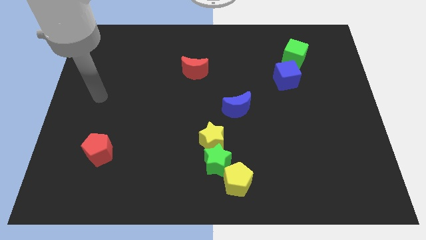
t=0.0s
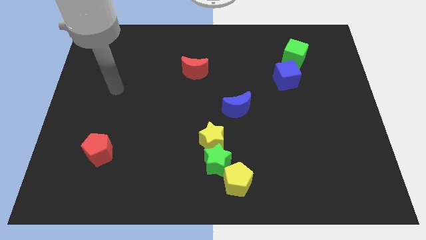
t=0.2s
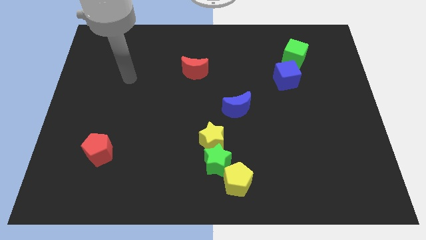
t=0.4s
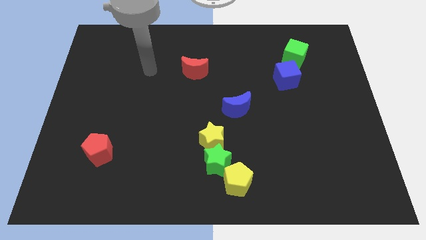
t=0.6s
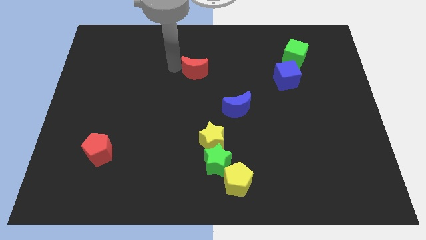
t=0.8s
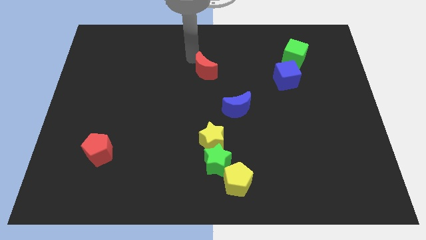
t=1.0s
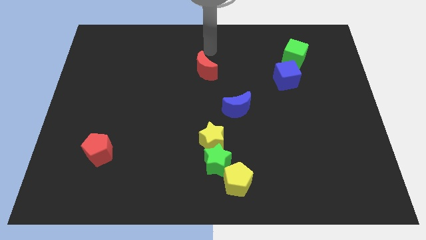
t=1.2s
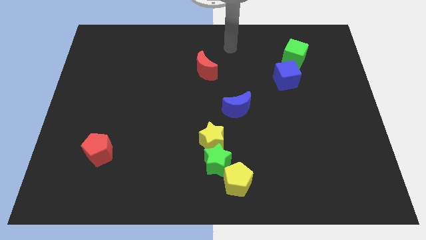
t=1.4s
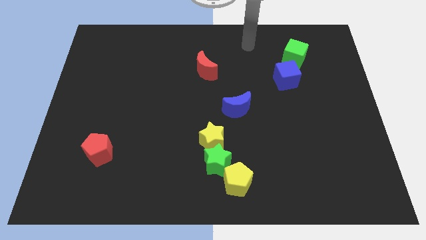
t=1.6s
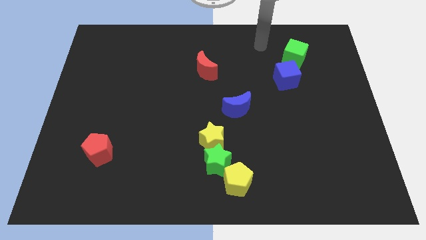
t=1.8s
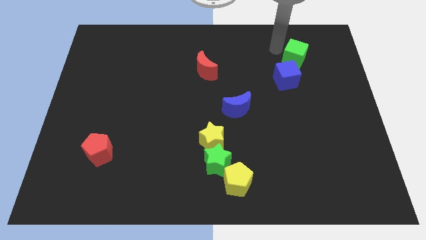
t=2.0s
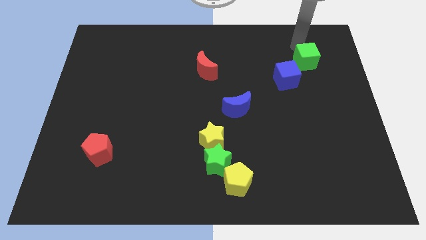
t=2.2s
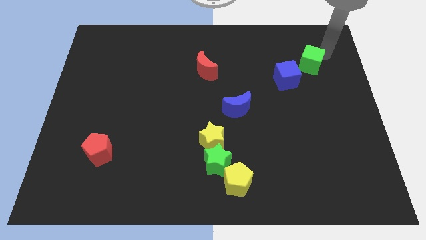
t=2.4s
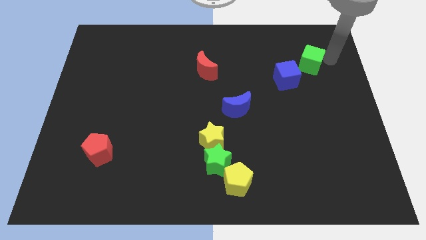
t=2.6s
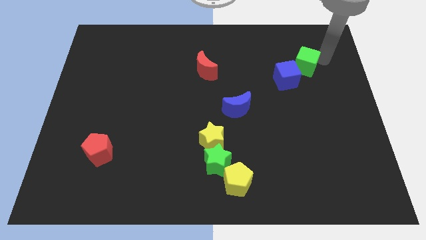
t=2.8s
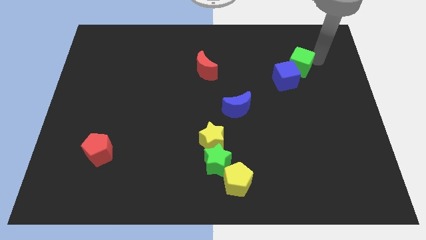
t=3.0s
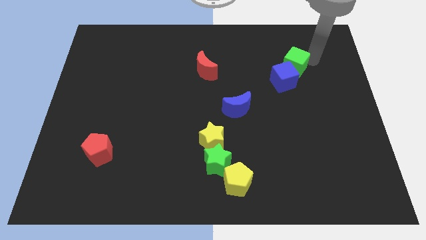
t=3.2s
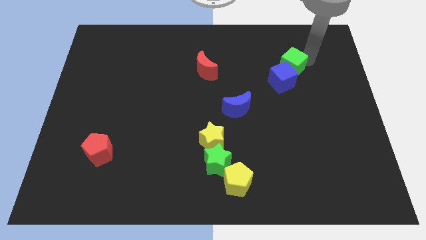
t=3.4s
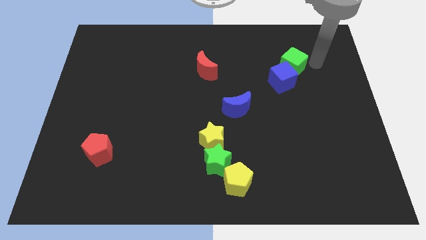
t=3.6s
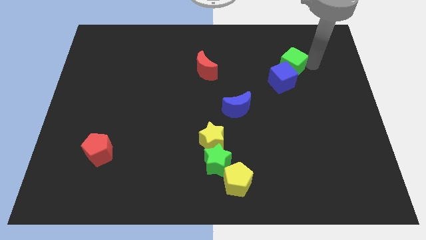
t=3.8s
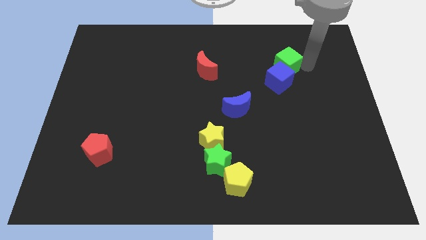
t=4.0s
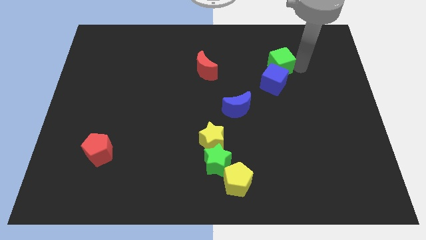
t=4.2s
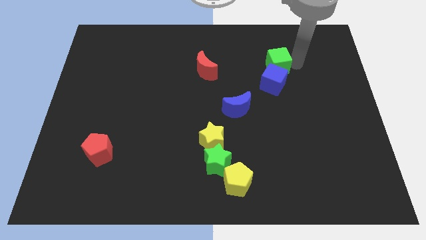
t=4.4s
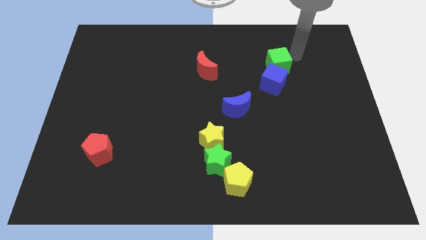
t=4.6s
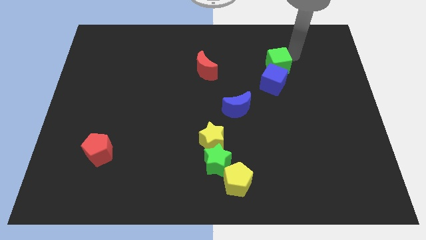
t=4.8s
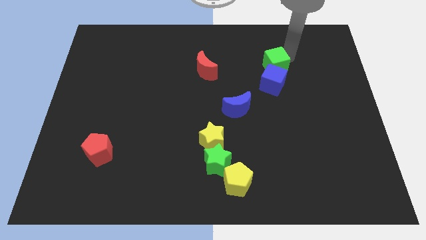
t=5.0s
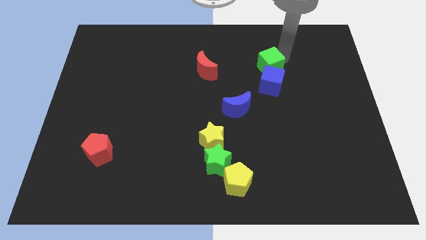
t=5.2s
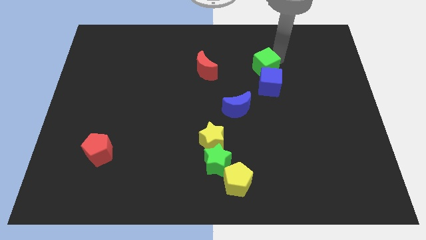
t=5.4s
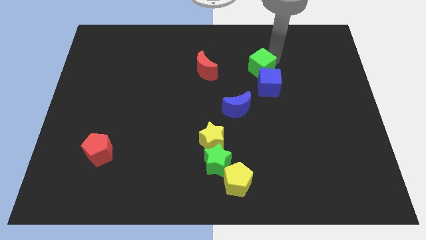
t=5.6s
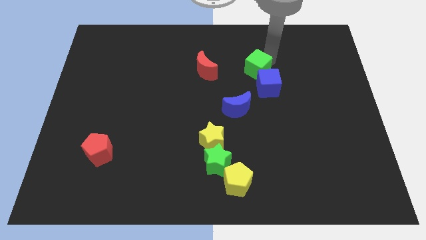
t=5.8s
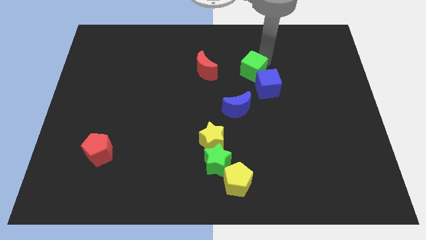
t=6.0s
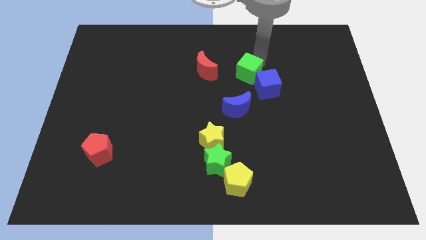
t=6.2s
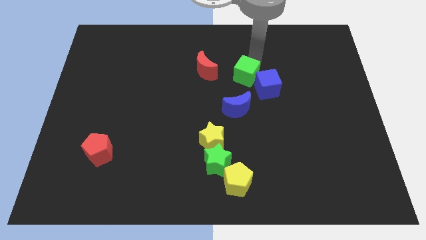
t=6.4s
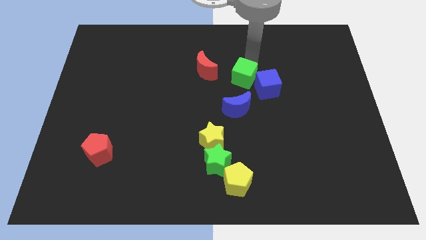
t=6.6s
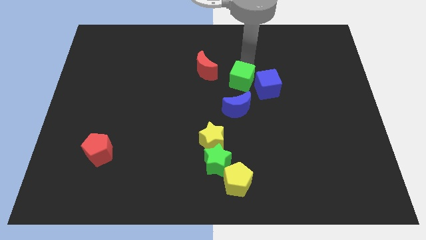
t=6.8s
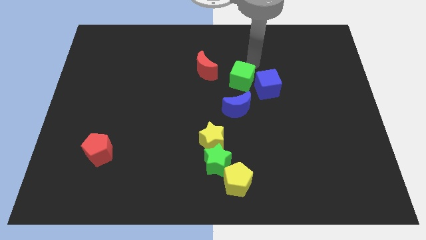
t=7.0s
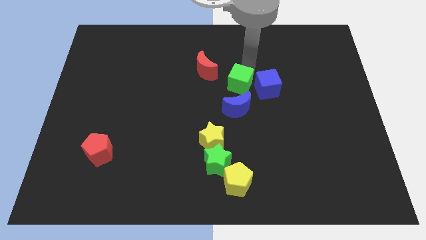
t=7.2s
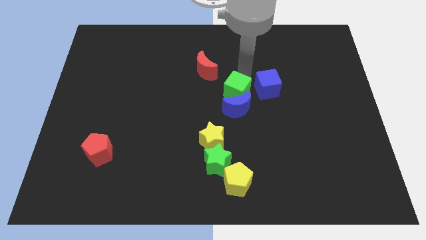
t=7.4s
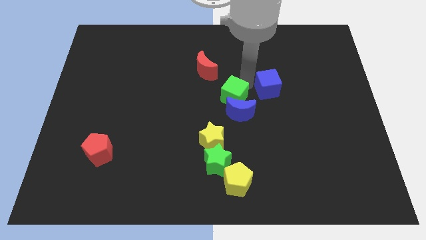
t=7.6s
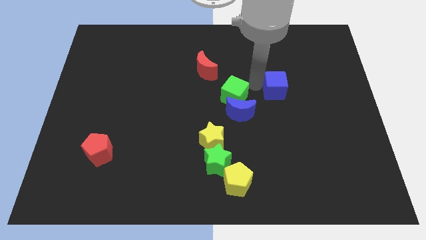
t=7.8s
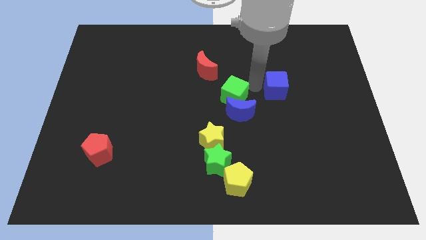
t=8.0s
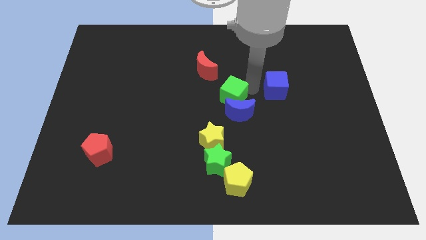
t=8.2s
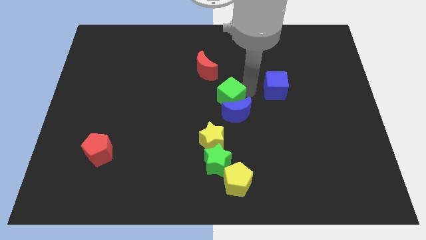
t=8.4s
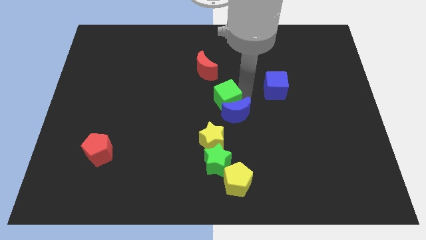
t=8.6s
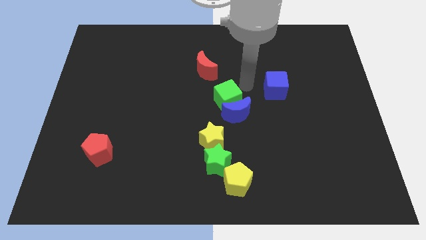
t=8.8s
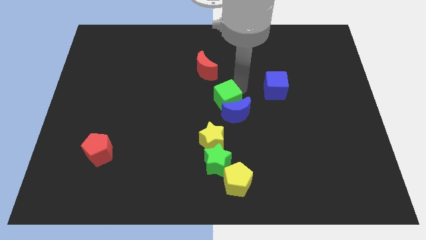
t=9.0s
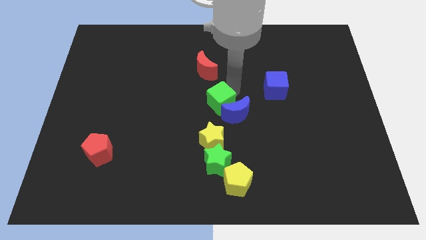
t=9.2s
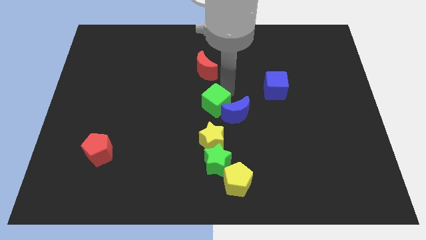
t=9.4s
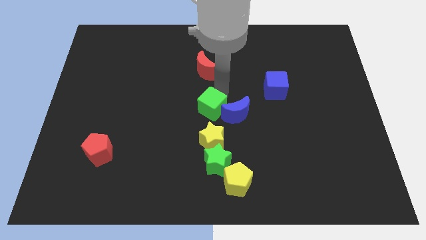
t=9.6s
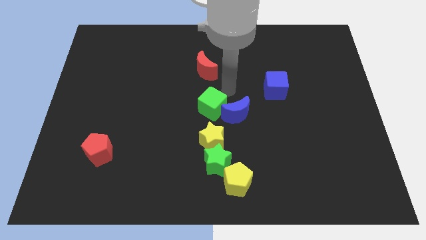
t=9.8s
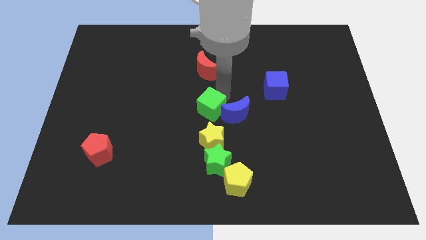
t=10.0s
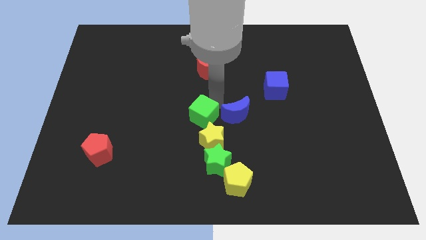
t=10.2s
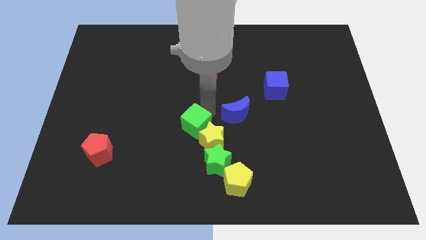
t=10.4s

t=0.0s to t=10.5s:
put the green cube to the left side of the yellow star

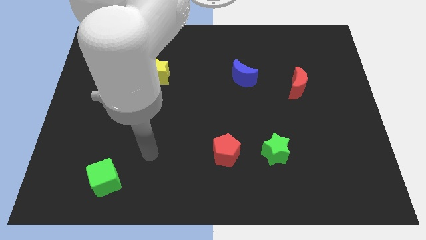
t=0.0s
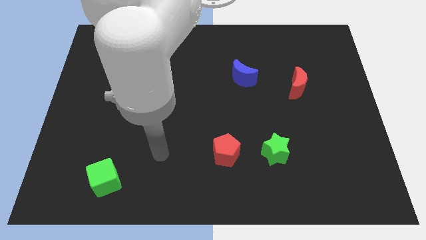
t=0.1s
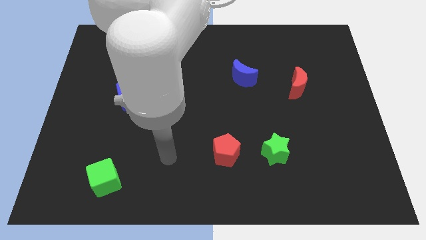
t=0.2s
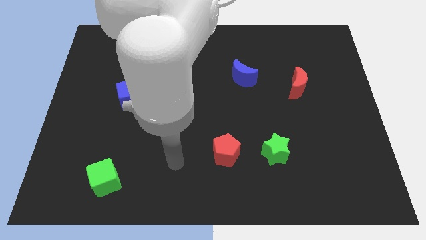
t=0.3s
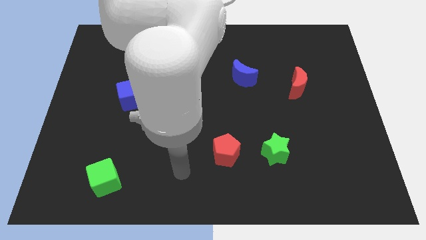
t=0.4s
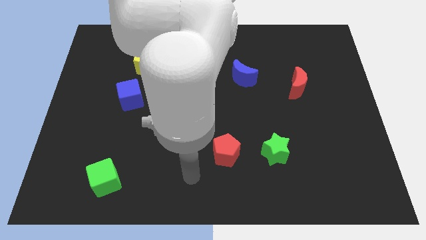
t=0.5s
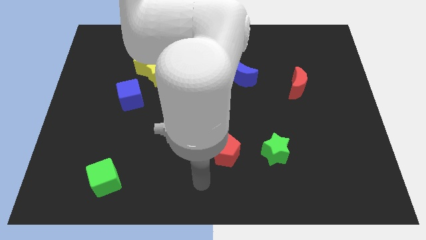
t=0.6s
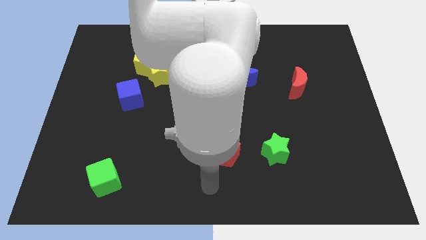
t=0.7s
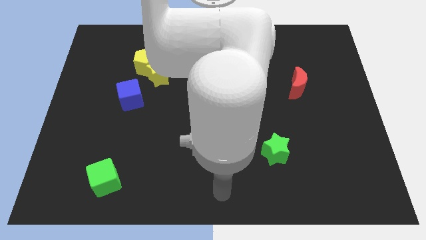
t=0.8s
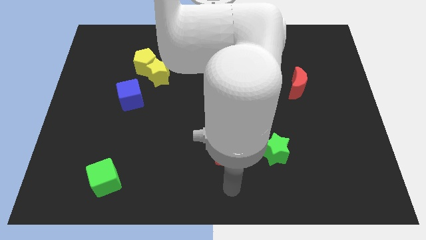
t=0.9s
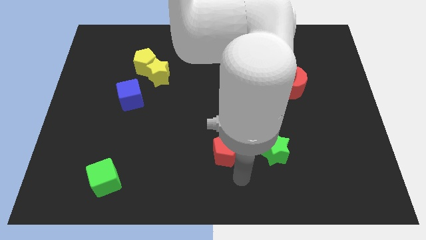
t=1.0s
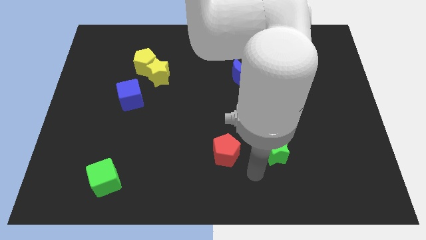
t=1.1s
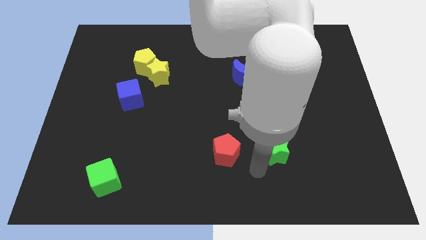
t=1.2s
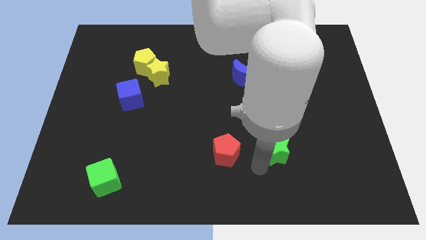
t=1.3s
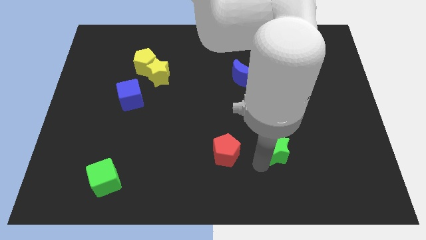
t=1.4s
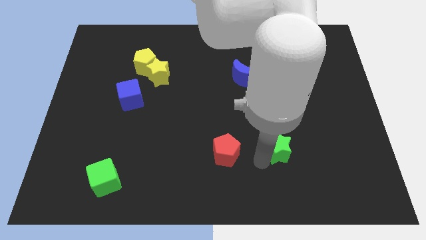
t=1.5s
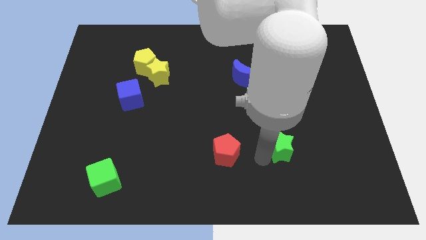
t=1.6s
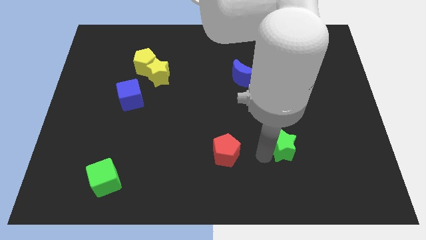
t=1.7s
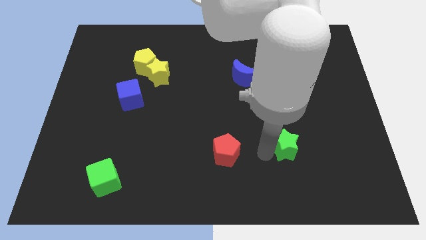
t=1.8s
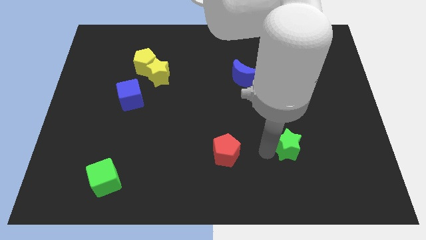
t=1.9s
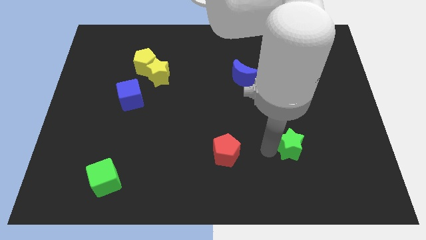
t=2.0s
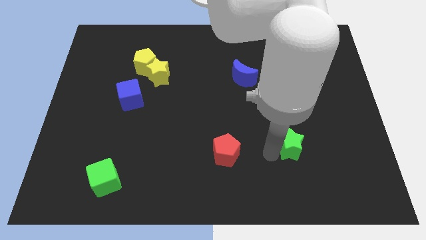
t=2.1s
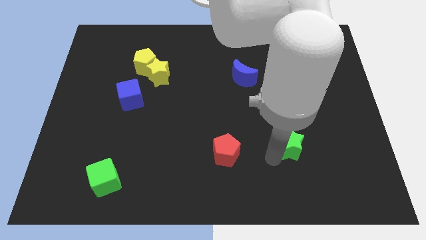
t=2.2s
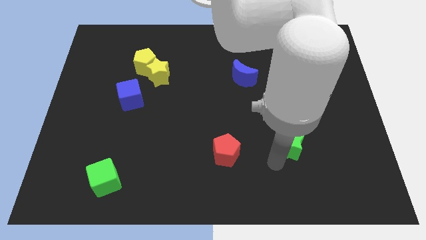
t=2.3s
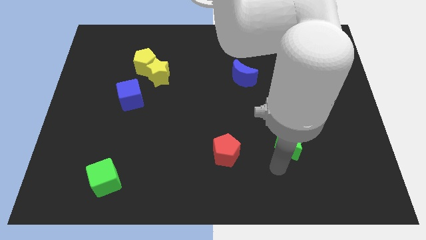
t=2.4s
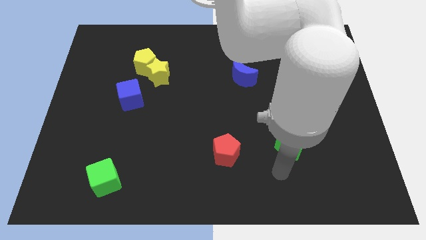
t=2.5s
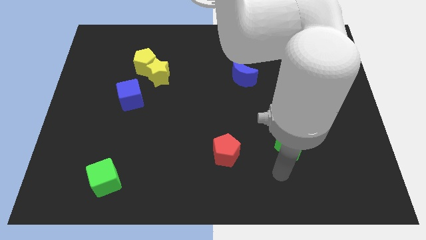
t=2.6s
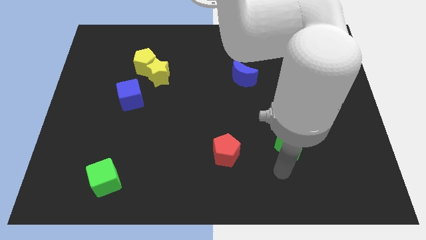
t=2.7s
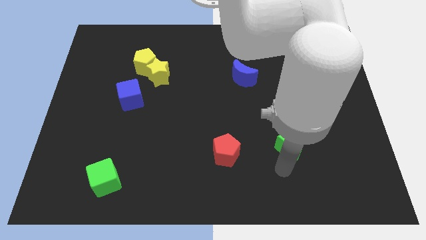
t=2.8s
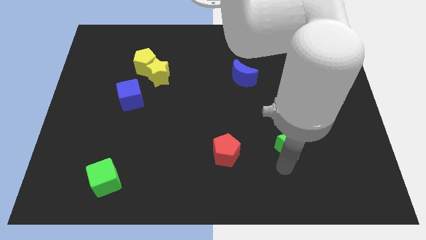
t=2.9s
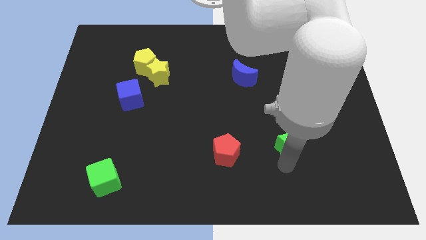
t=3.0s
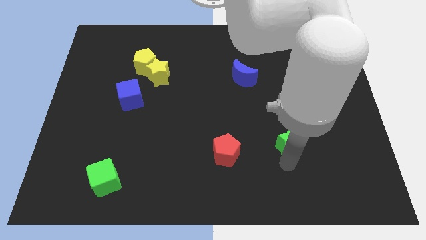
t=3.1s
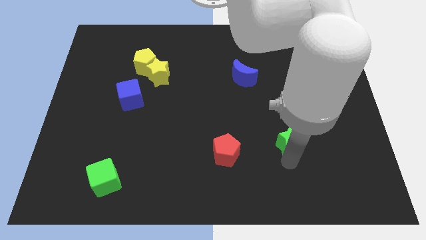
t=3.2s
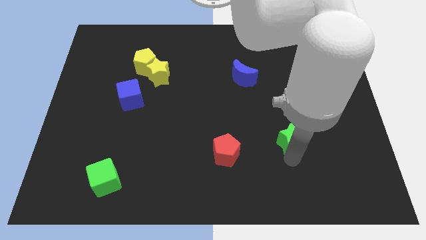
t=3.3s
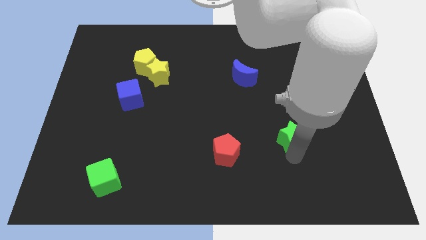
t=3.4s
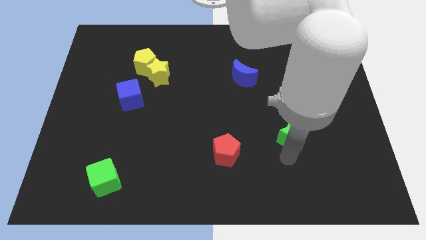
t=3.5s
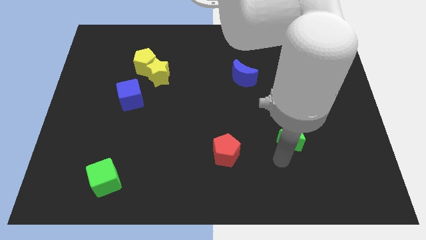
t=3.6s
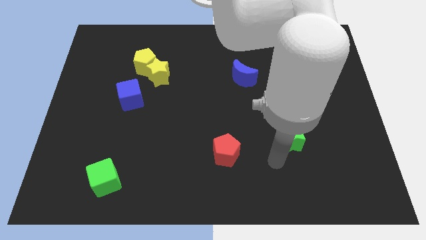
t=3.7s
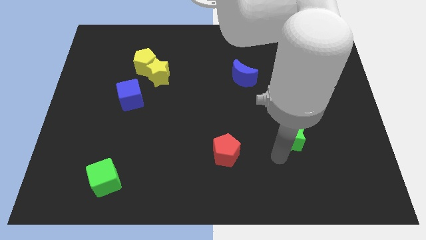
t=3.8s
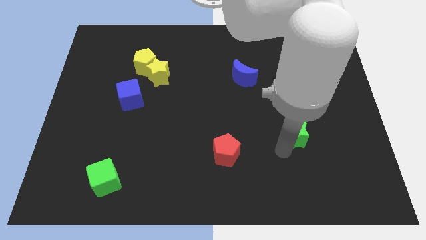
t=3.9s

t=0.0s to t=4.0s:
move the green star to the bottom side of the red moon
